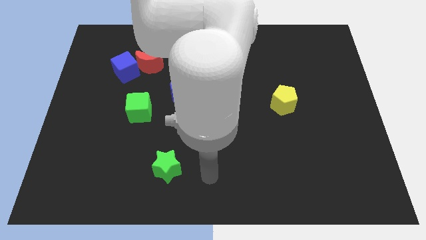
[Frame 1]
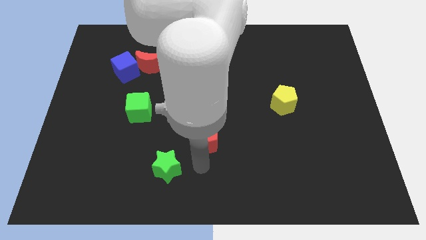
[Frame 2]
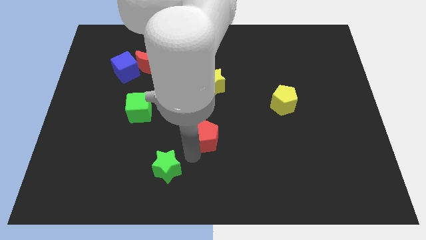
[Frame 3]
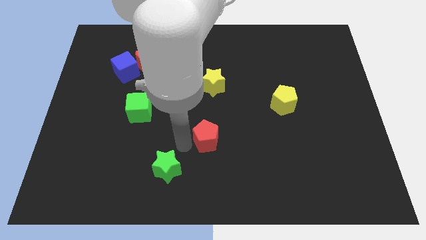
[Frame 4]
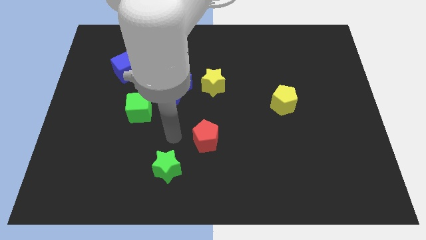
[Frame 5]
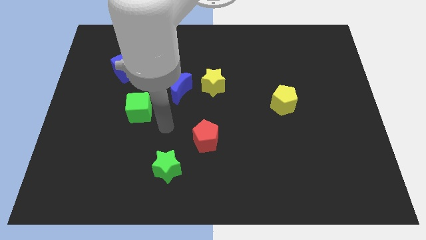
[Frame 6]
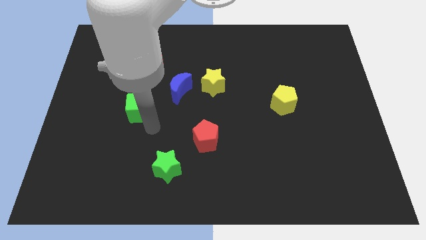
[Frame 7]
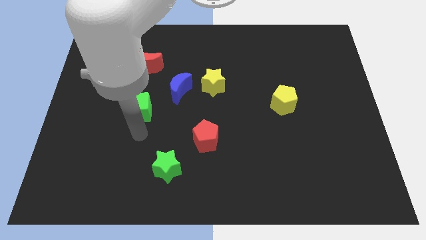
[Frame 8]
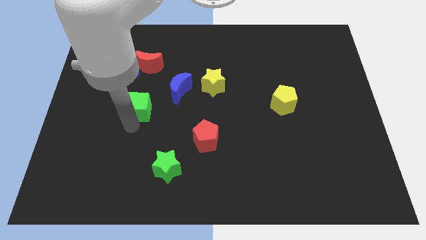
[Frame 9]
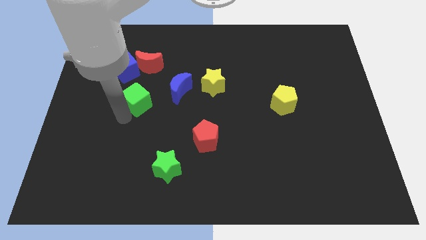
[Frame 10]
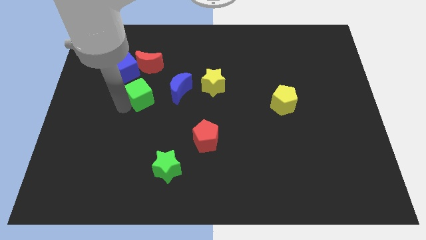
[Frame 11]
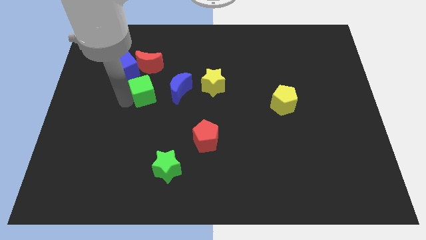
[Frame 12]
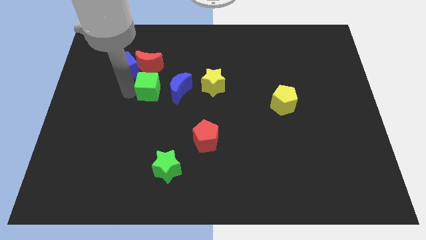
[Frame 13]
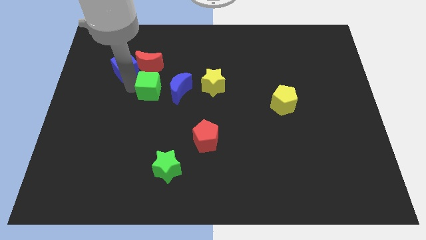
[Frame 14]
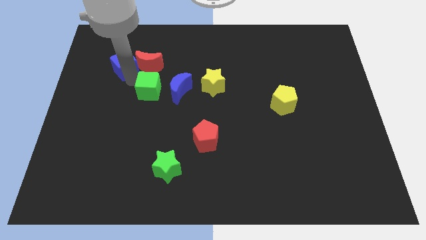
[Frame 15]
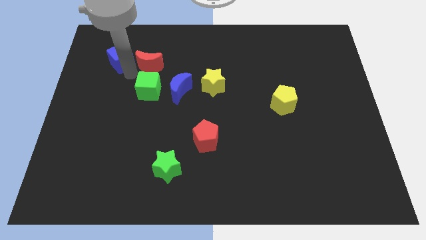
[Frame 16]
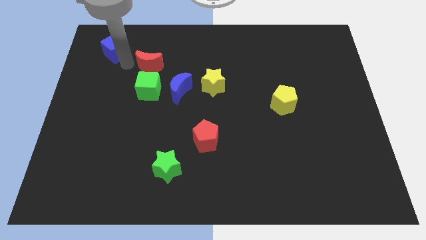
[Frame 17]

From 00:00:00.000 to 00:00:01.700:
pull the red moon apart from the blue cube

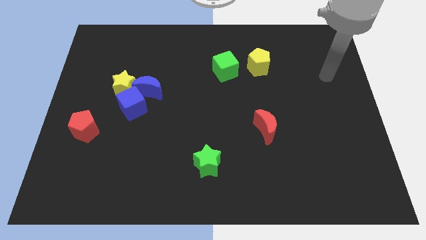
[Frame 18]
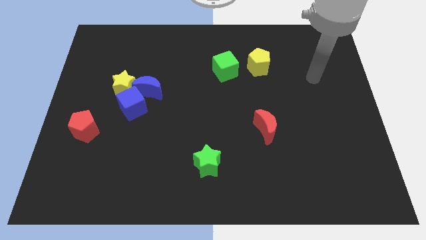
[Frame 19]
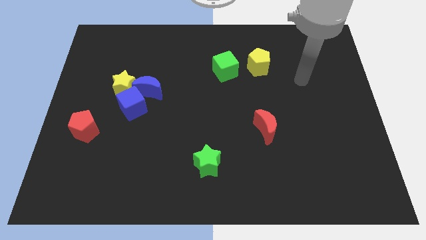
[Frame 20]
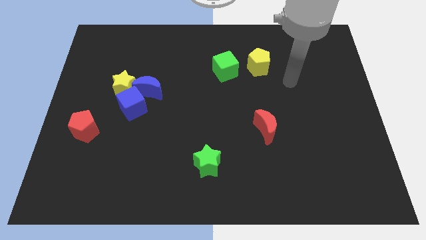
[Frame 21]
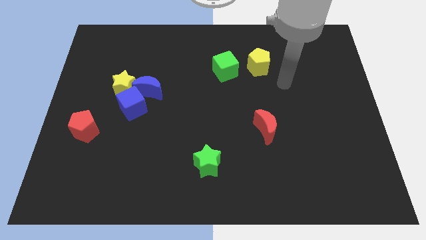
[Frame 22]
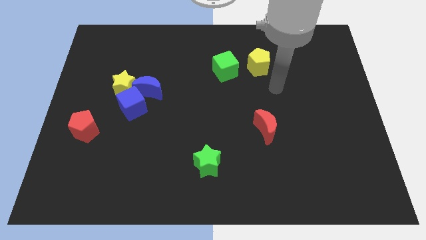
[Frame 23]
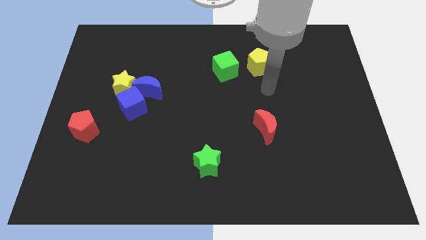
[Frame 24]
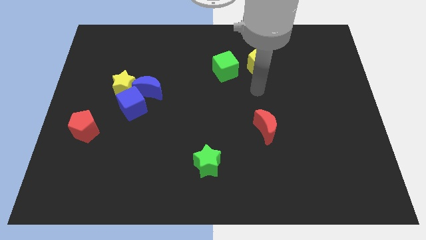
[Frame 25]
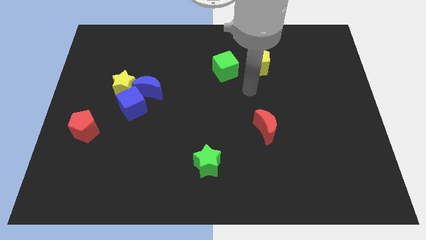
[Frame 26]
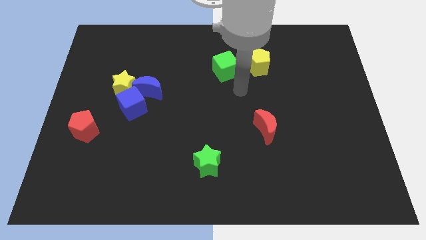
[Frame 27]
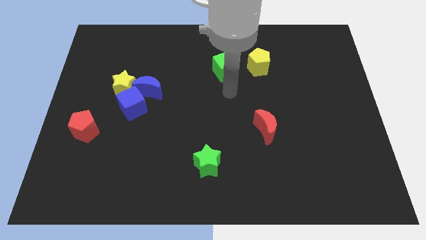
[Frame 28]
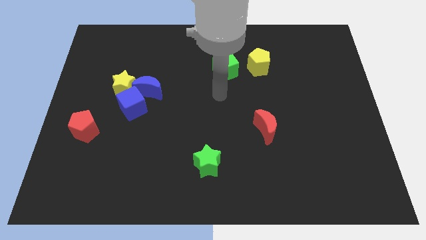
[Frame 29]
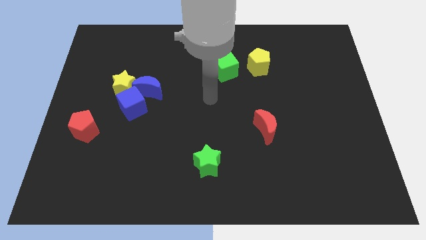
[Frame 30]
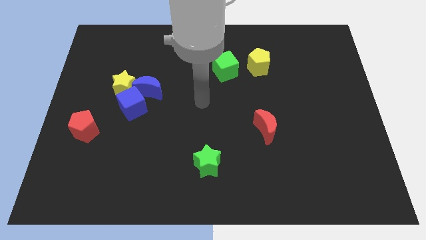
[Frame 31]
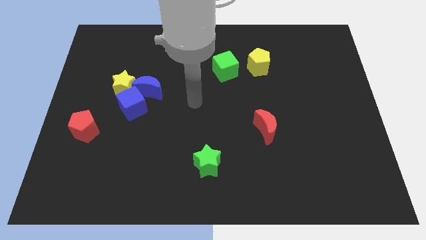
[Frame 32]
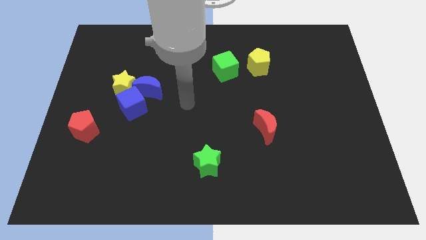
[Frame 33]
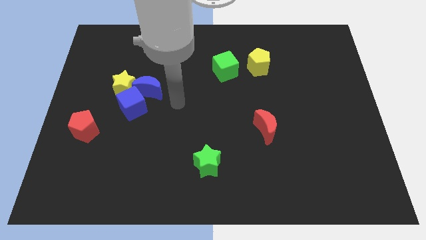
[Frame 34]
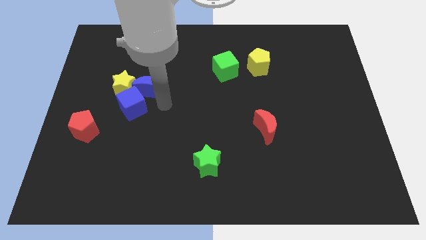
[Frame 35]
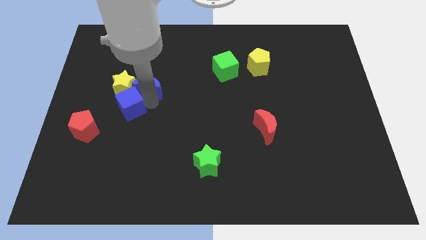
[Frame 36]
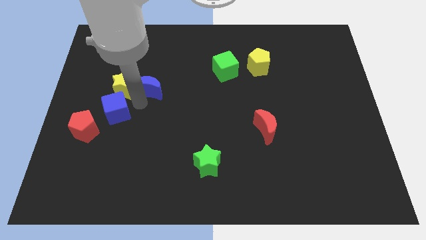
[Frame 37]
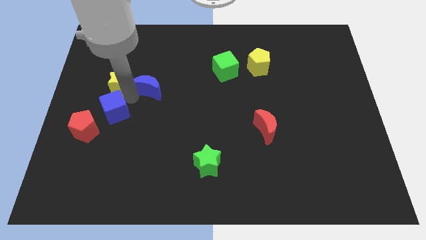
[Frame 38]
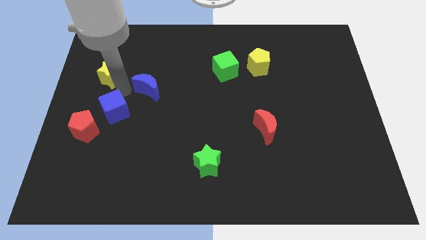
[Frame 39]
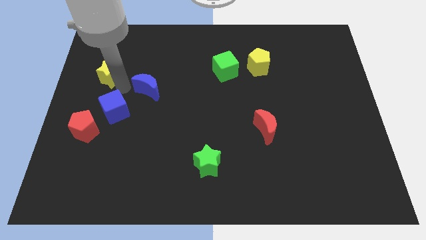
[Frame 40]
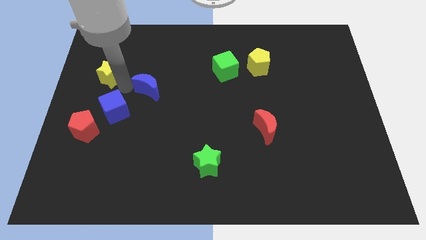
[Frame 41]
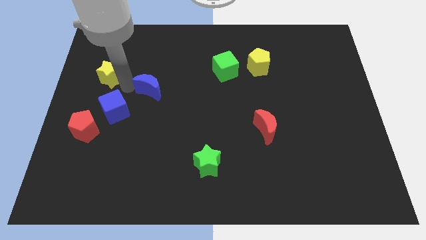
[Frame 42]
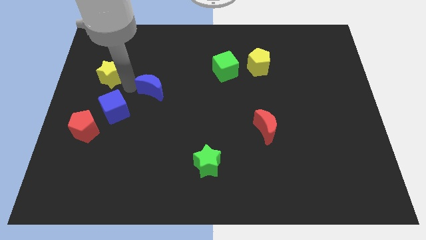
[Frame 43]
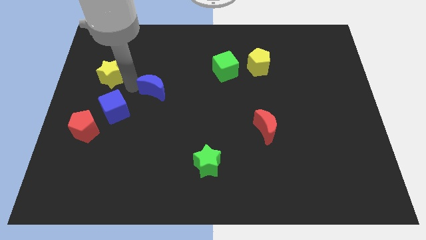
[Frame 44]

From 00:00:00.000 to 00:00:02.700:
pull the blue moon apart from the blue cube and yellow star

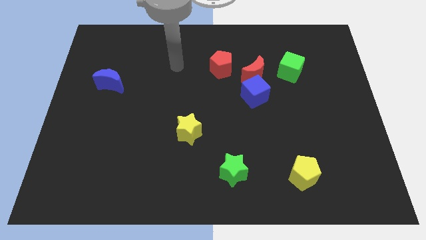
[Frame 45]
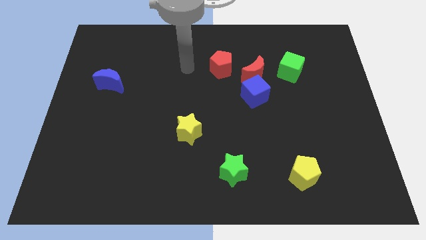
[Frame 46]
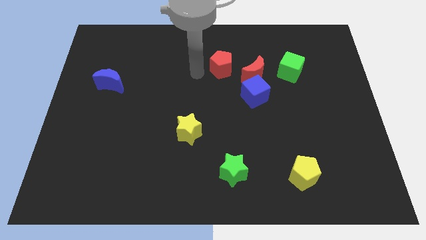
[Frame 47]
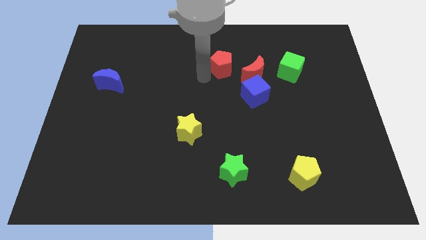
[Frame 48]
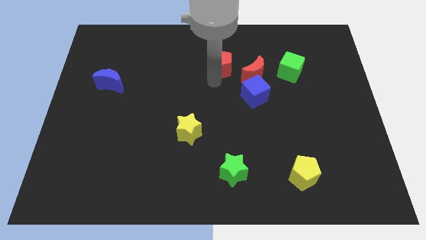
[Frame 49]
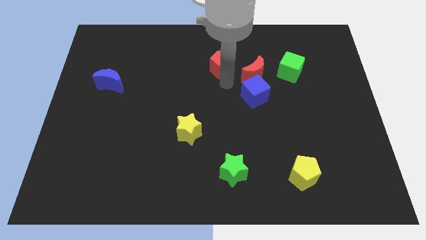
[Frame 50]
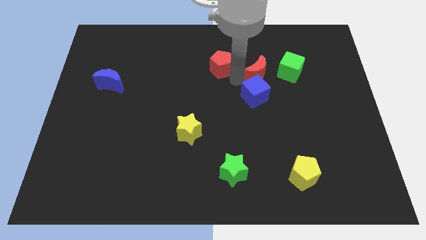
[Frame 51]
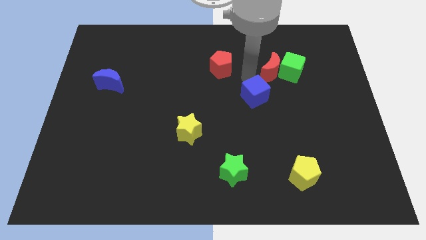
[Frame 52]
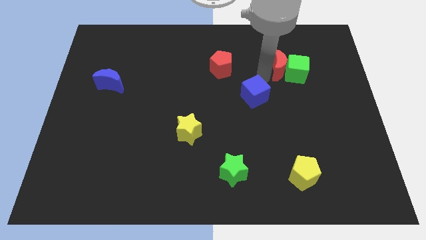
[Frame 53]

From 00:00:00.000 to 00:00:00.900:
separate the blue cube from the red moon

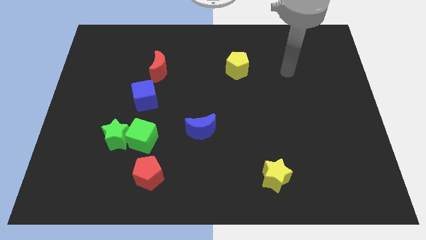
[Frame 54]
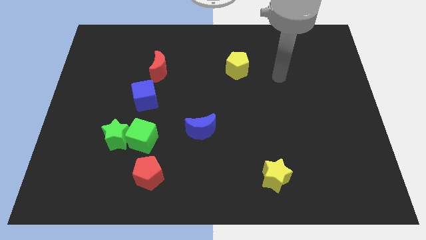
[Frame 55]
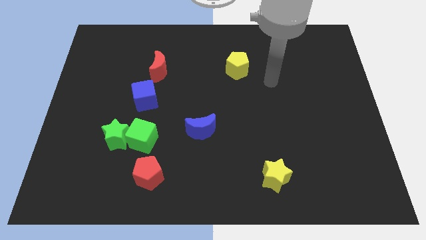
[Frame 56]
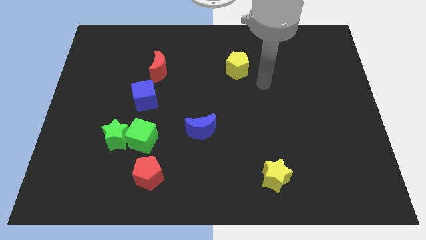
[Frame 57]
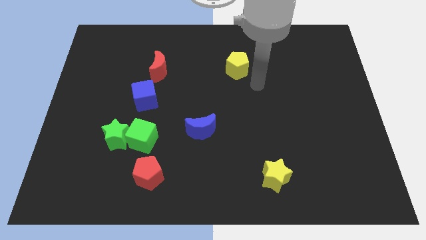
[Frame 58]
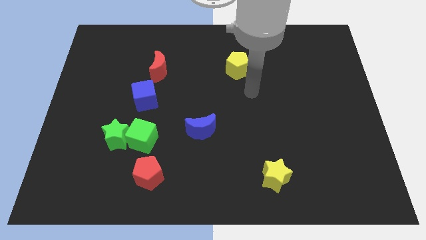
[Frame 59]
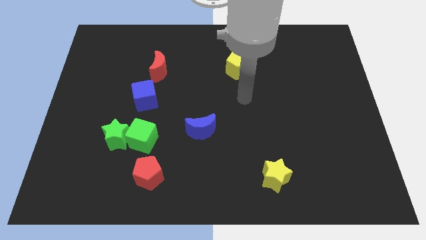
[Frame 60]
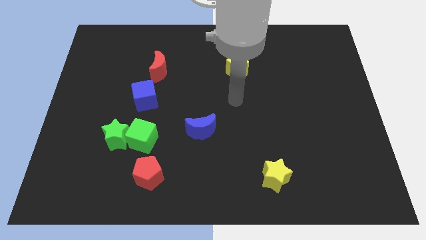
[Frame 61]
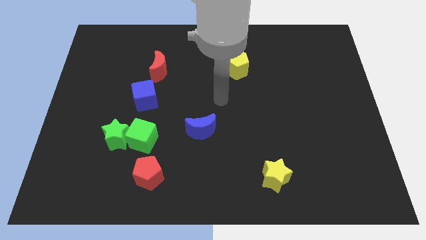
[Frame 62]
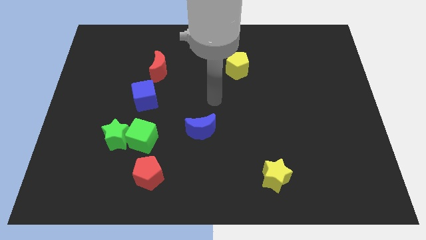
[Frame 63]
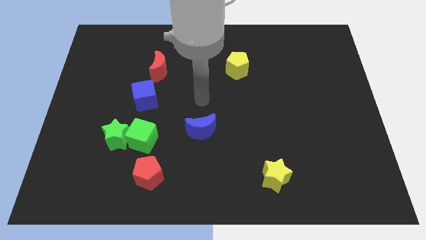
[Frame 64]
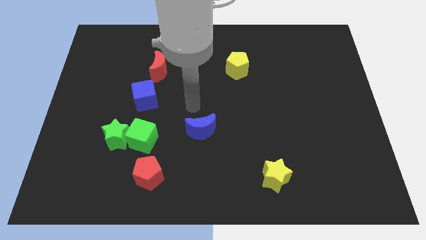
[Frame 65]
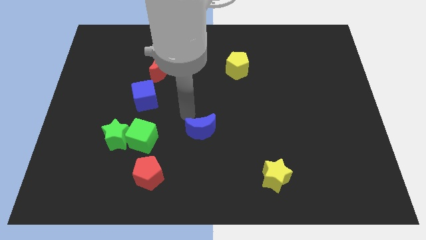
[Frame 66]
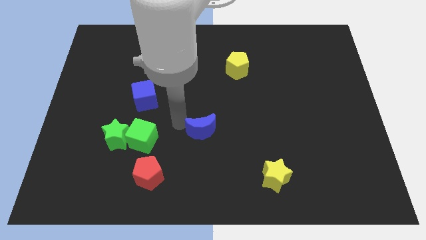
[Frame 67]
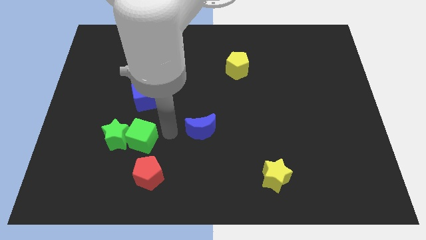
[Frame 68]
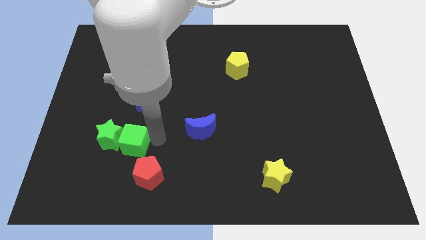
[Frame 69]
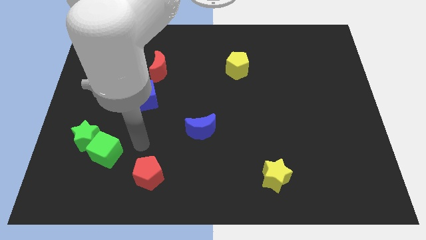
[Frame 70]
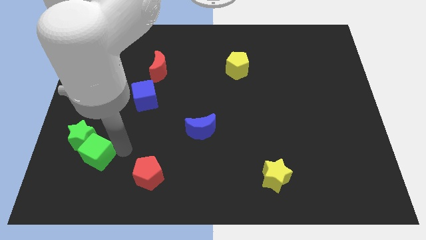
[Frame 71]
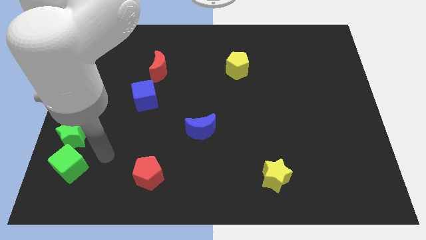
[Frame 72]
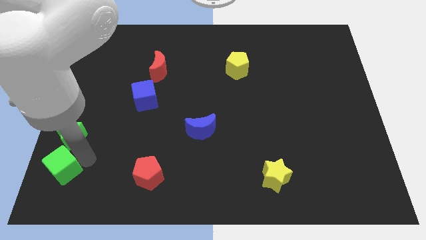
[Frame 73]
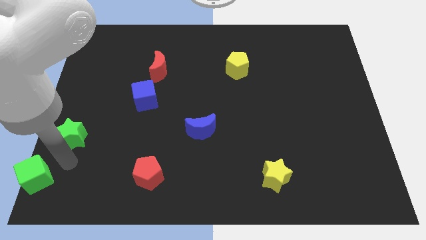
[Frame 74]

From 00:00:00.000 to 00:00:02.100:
pull the green star apart from the green cube

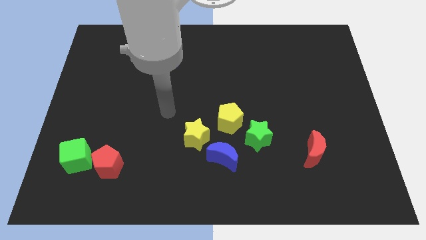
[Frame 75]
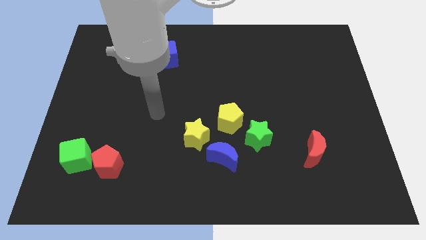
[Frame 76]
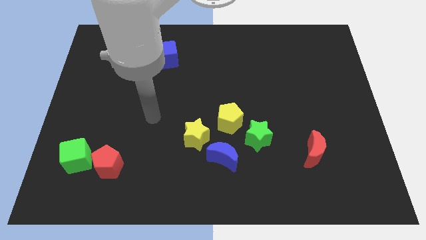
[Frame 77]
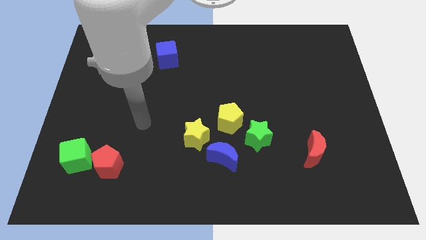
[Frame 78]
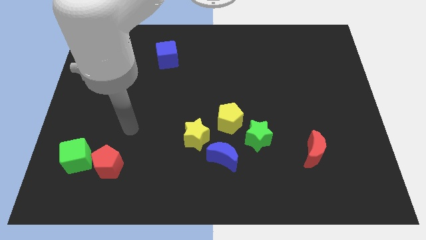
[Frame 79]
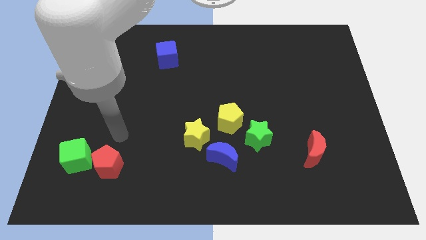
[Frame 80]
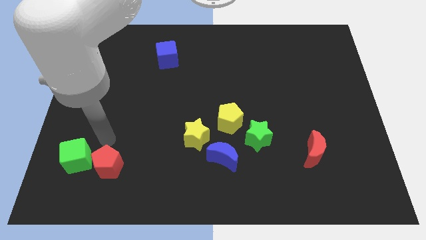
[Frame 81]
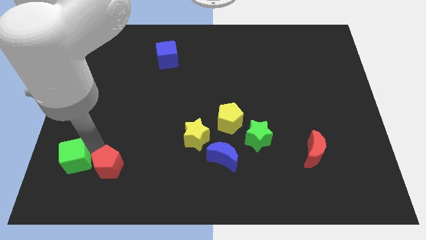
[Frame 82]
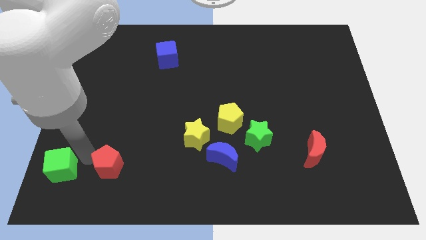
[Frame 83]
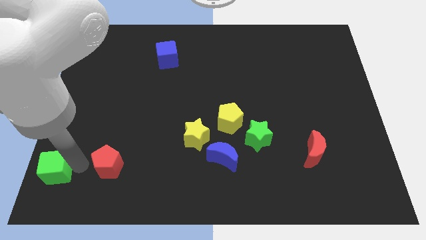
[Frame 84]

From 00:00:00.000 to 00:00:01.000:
separate the red pentagon from the green cube

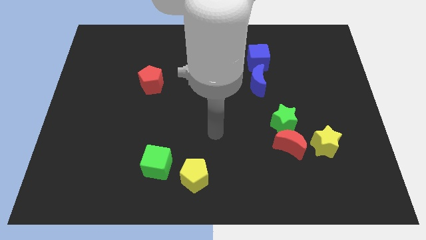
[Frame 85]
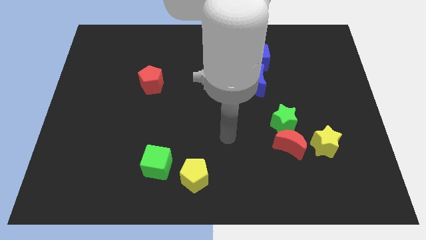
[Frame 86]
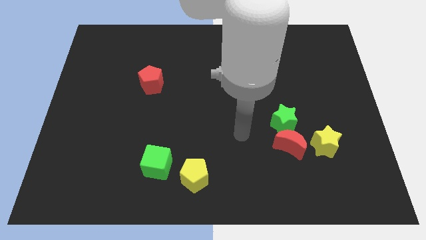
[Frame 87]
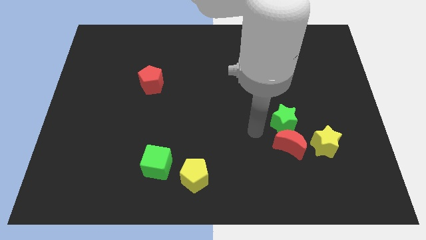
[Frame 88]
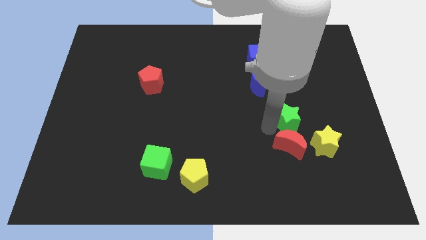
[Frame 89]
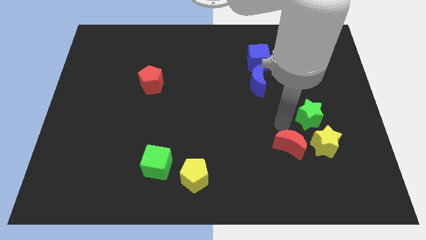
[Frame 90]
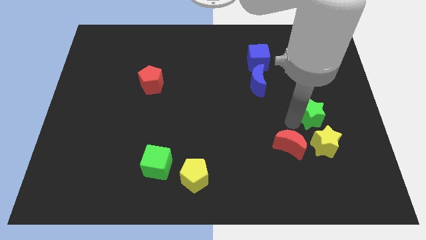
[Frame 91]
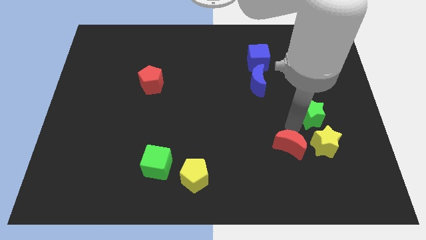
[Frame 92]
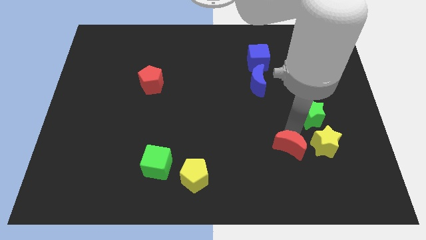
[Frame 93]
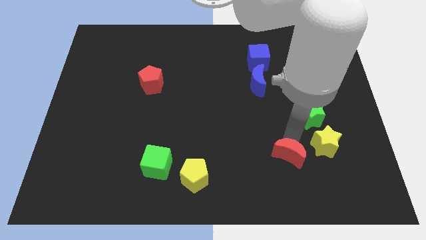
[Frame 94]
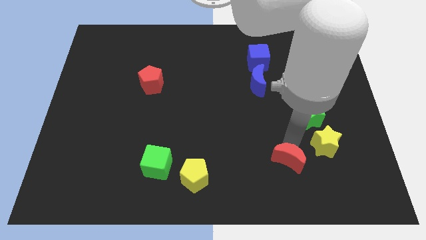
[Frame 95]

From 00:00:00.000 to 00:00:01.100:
separate the red moon from the green star and yellow star
